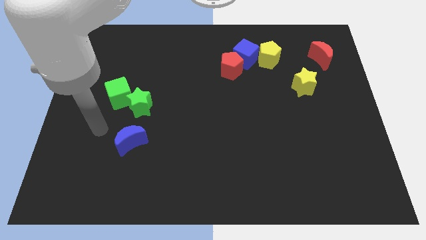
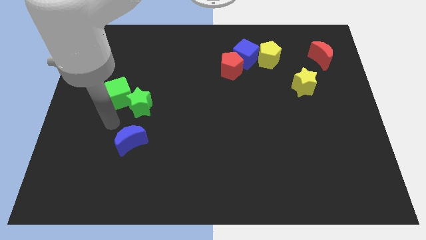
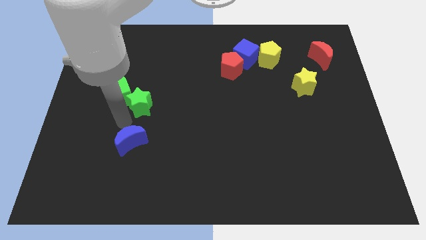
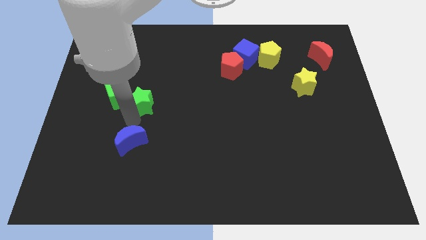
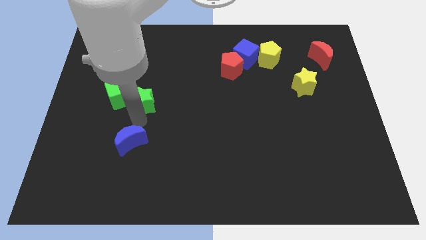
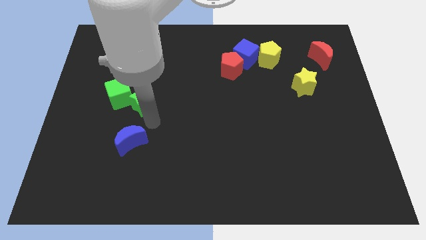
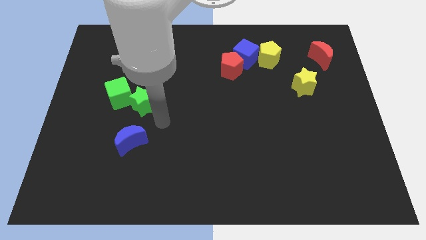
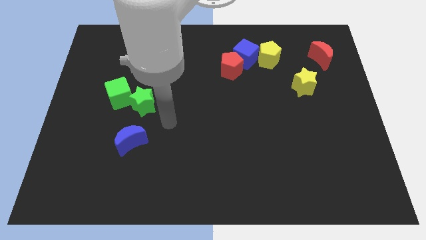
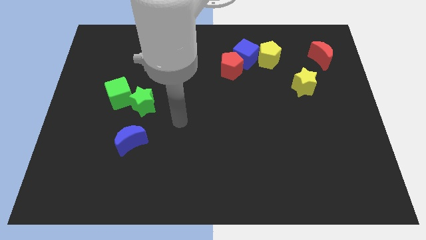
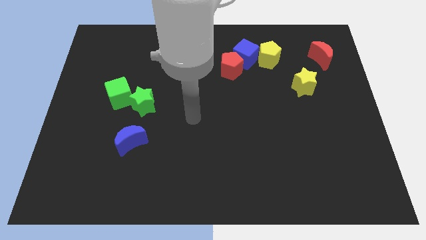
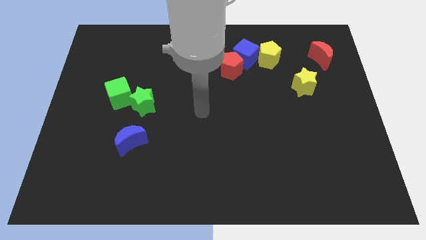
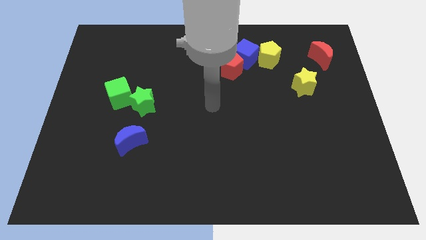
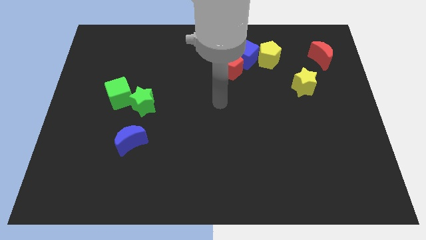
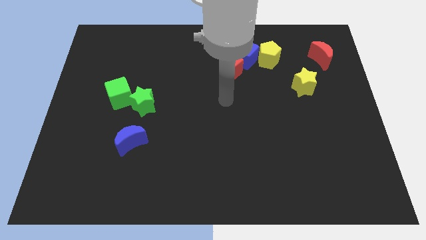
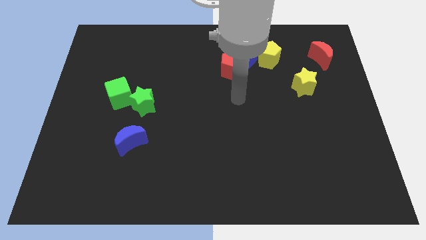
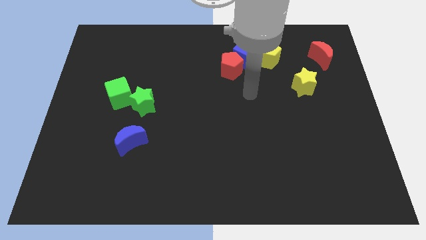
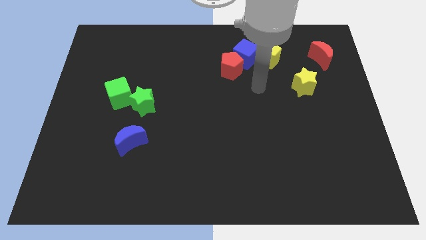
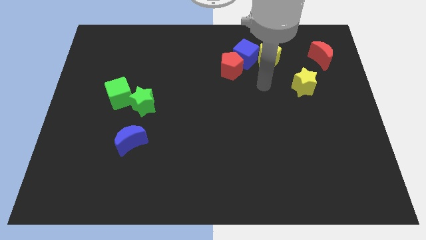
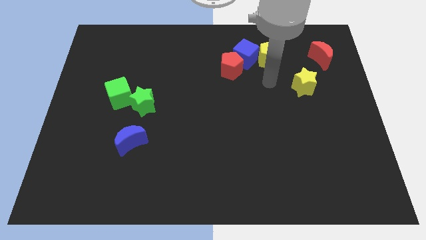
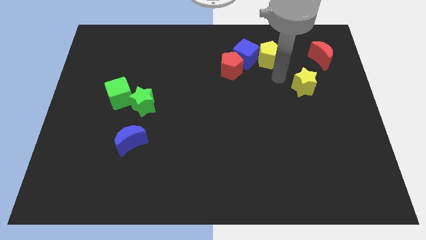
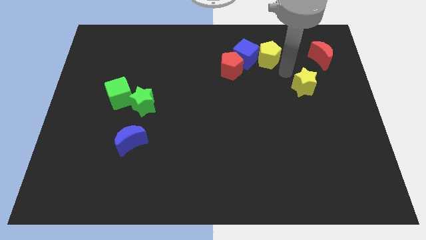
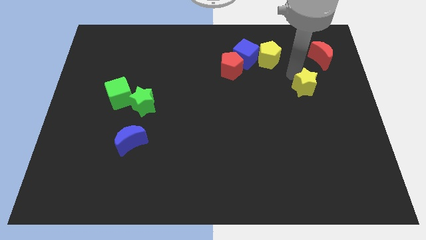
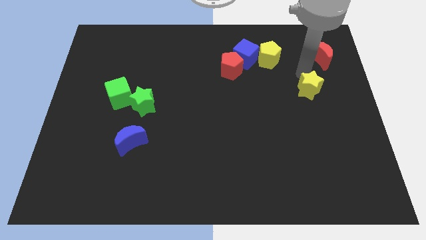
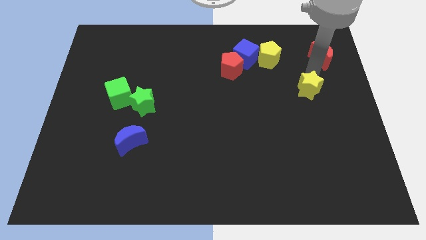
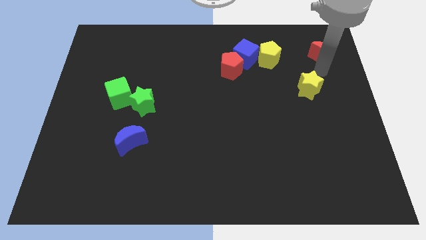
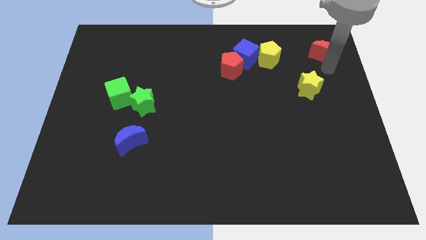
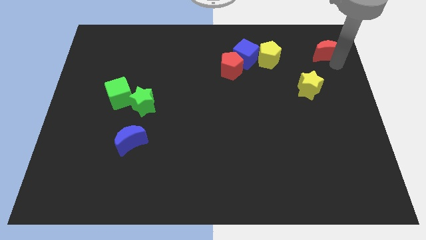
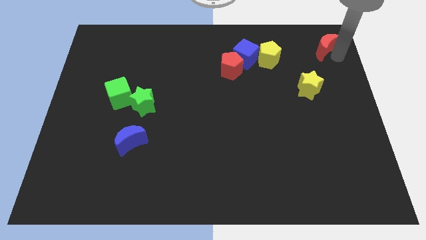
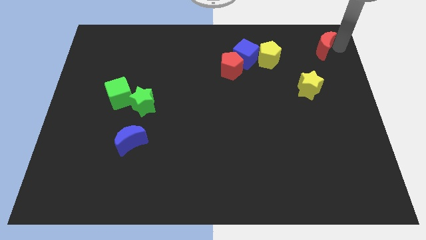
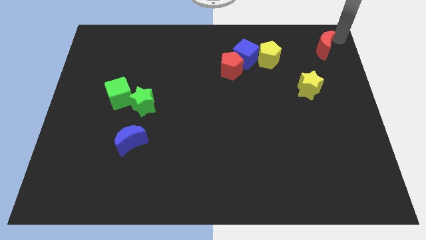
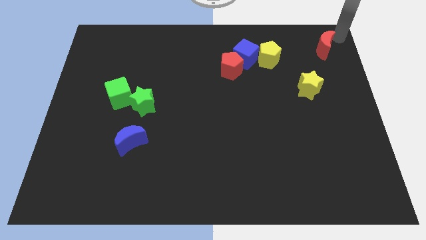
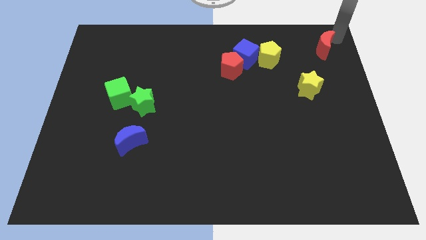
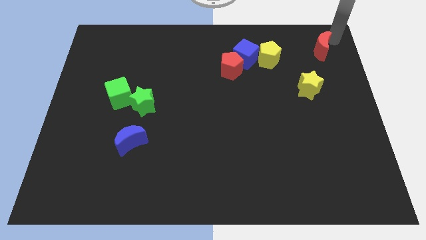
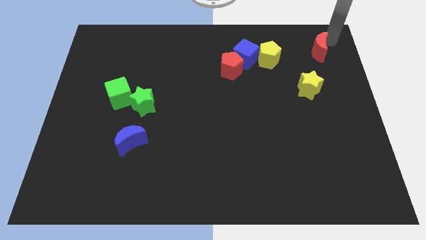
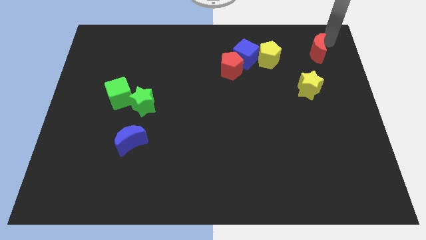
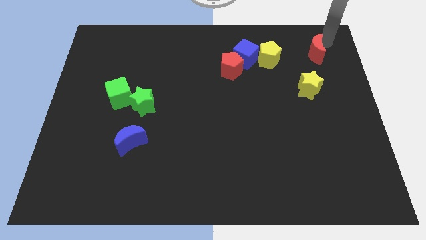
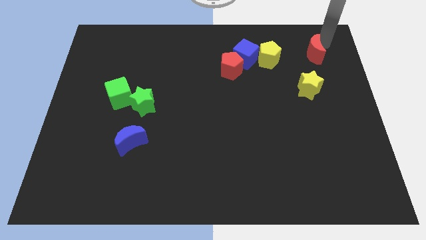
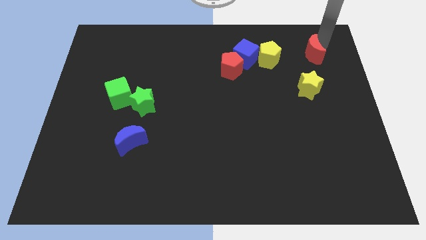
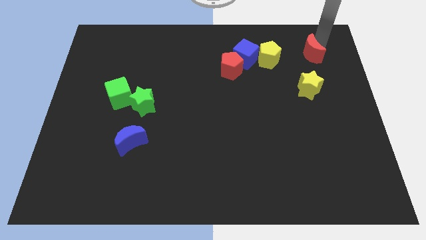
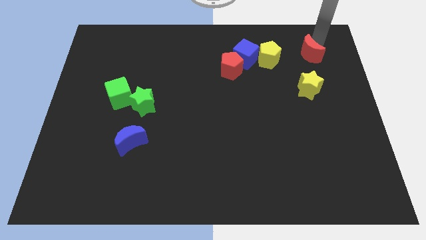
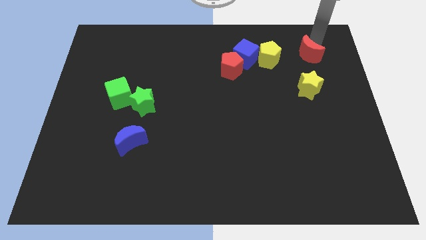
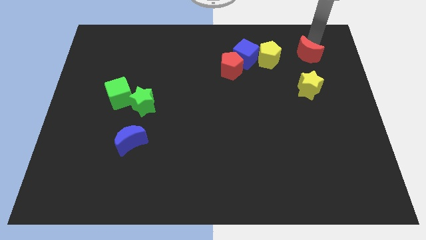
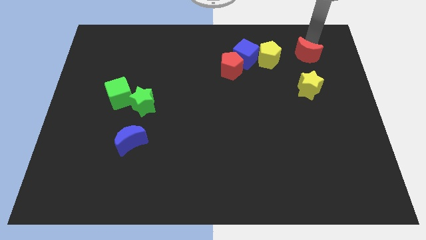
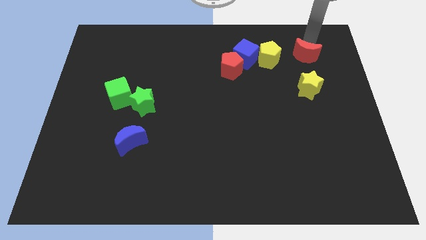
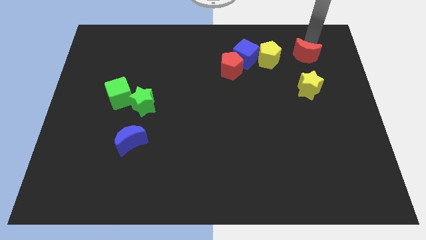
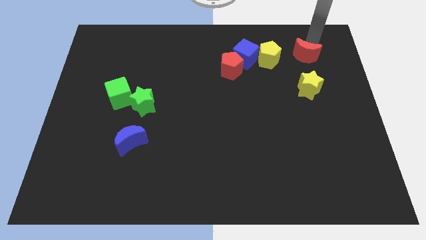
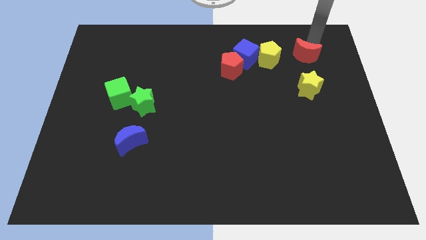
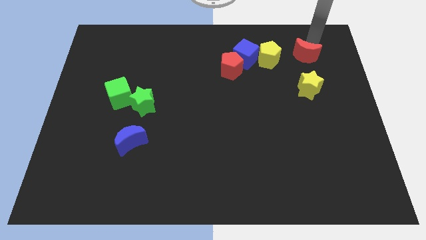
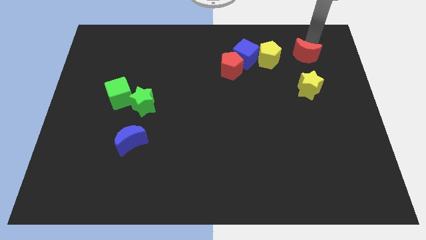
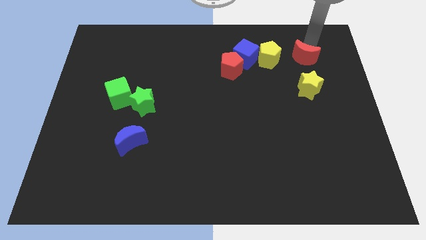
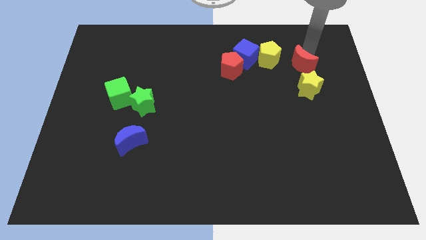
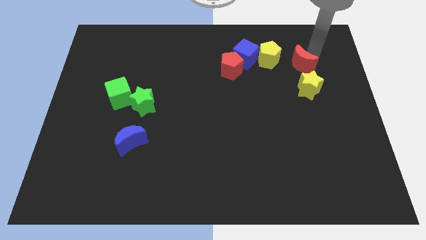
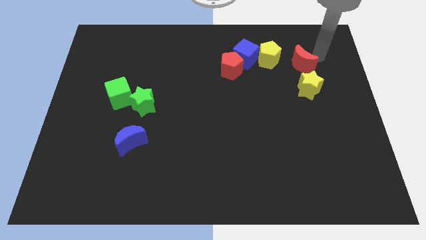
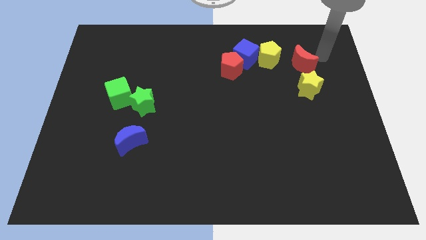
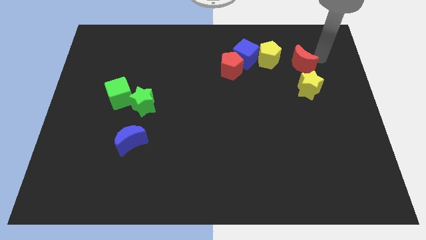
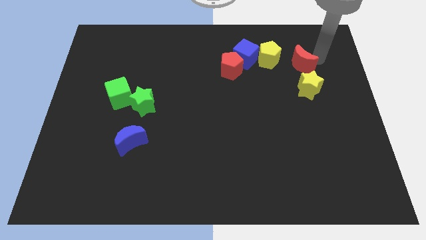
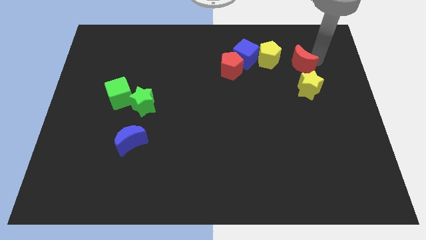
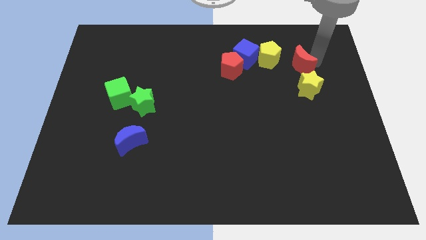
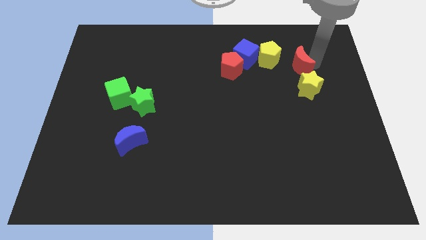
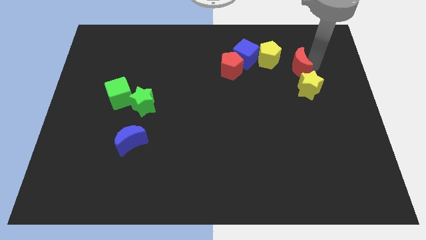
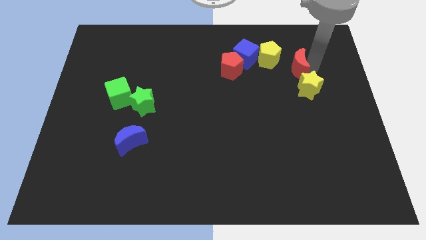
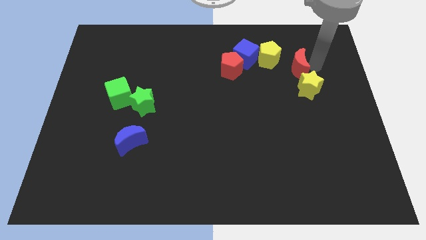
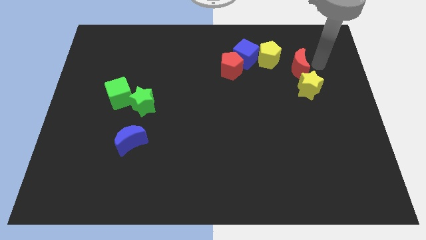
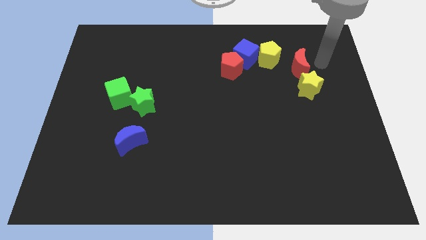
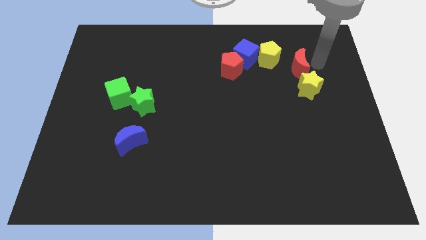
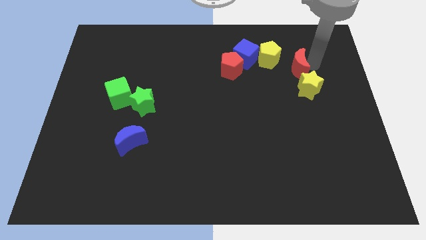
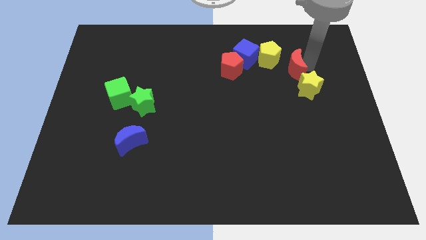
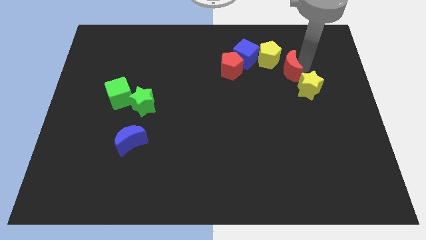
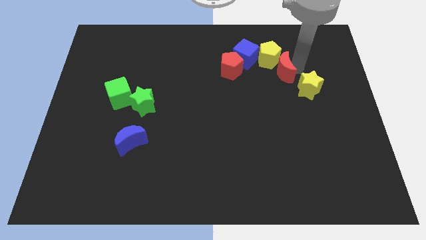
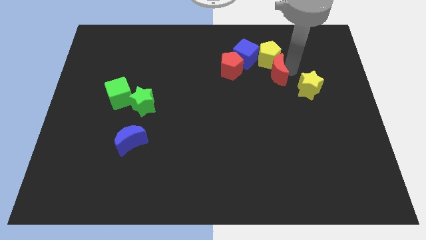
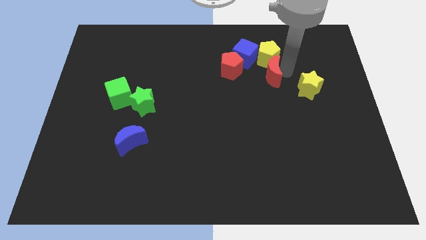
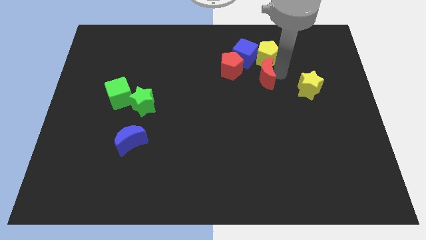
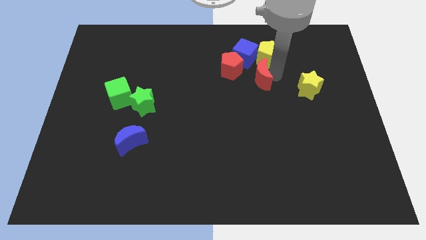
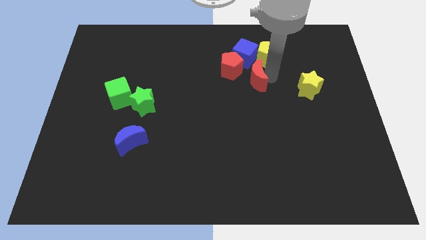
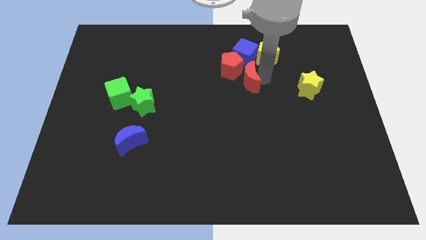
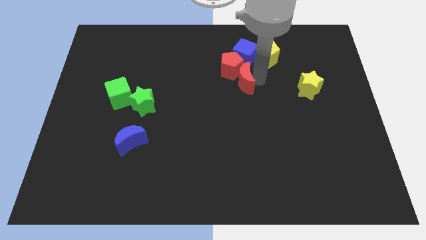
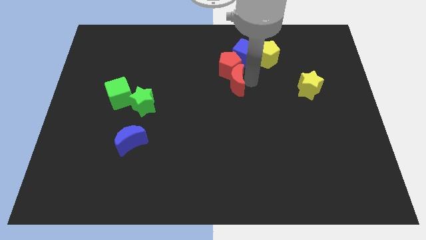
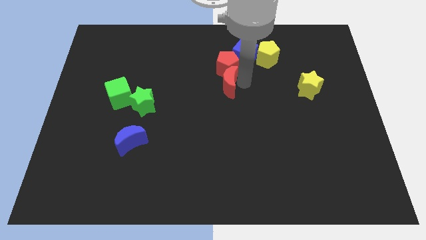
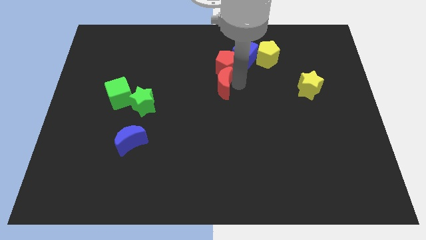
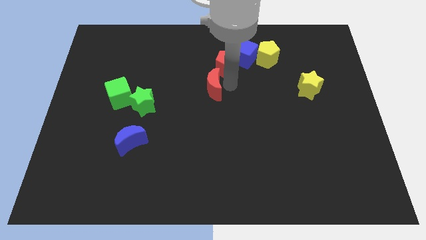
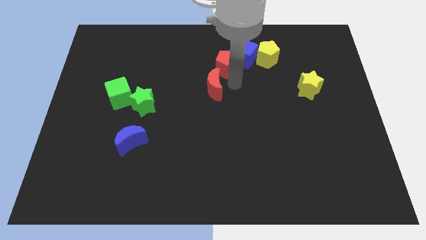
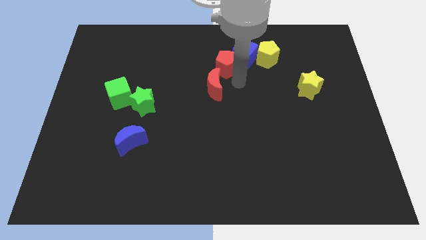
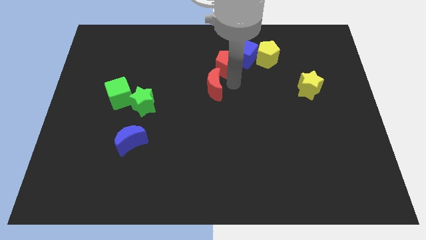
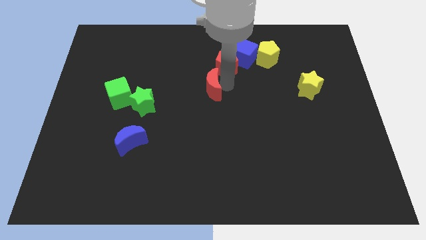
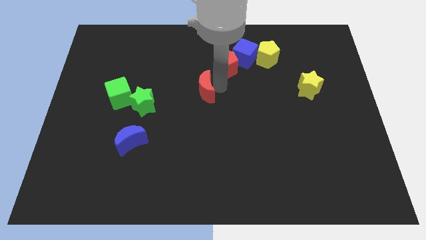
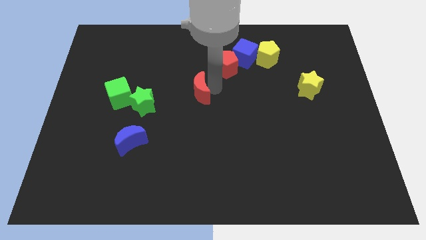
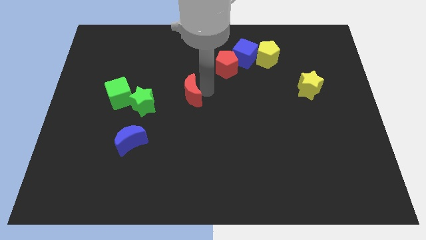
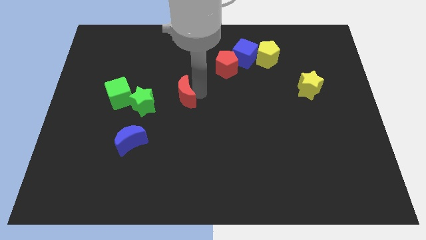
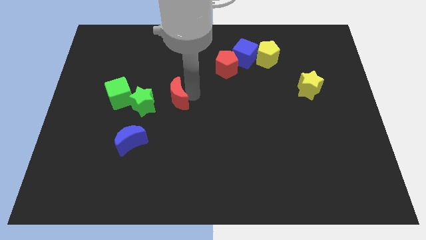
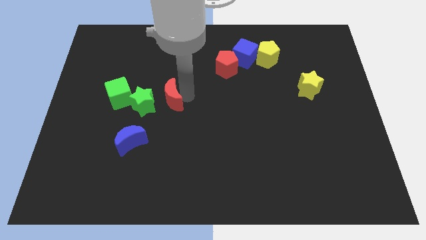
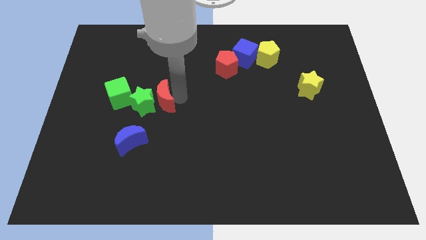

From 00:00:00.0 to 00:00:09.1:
push the red moon to the green star
